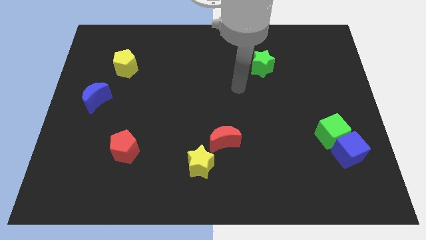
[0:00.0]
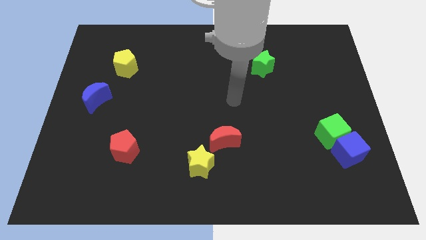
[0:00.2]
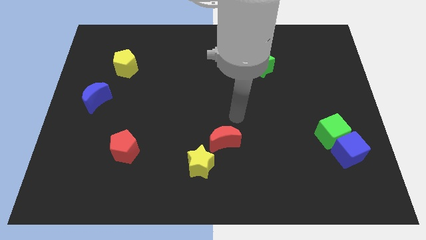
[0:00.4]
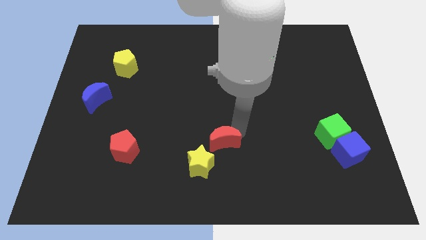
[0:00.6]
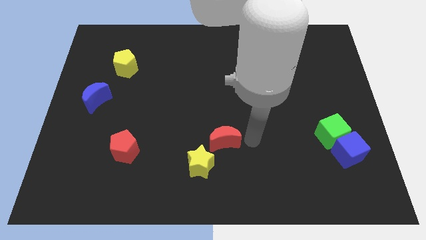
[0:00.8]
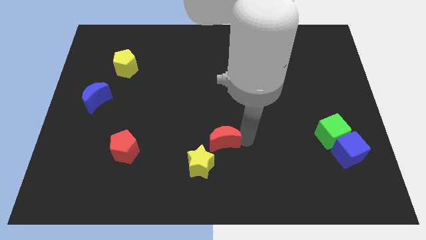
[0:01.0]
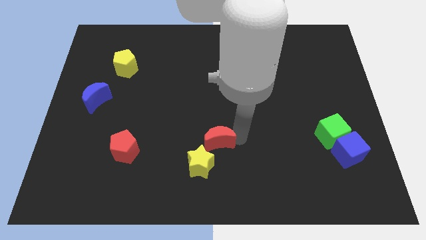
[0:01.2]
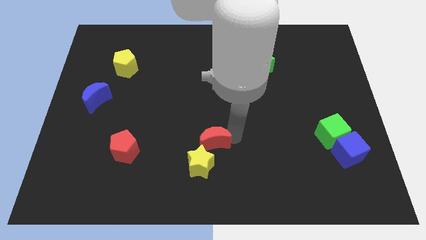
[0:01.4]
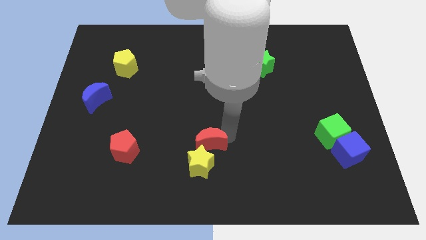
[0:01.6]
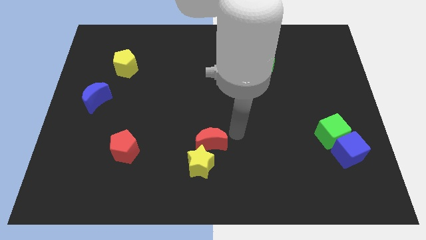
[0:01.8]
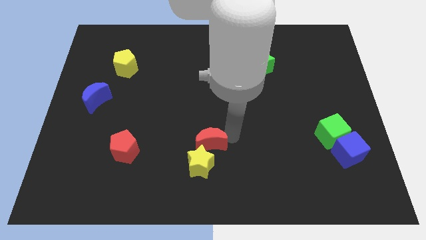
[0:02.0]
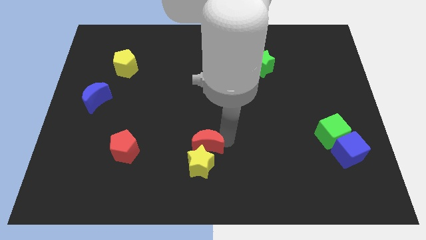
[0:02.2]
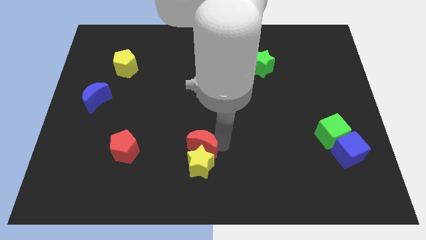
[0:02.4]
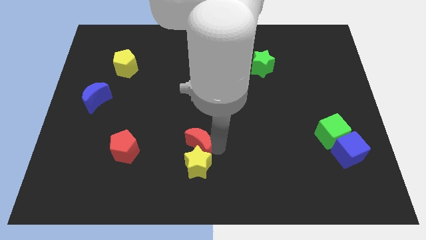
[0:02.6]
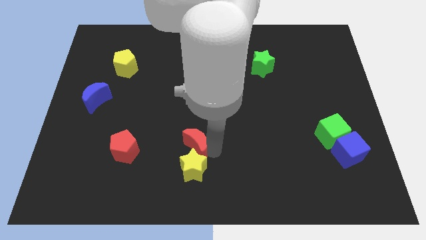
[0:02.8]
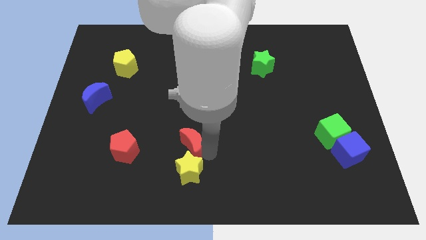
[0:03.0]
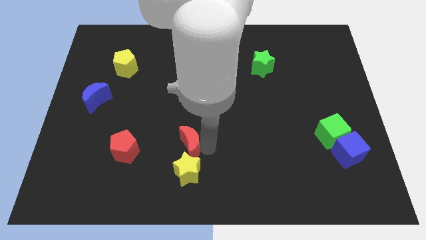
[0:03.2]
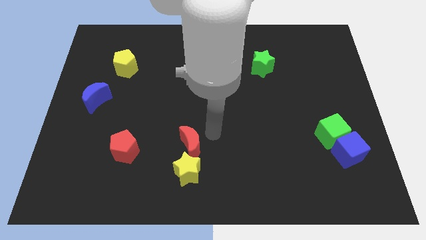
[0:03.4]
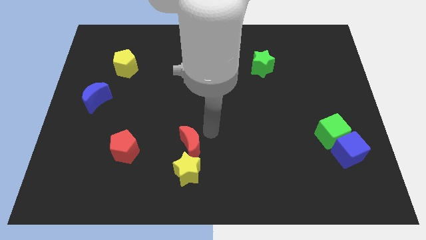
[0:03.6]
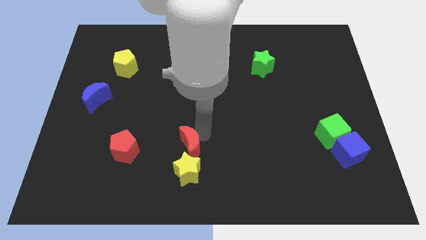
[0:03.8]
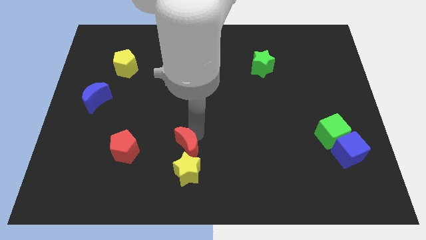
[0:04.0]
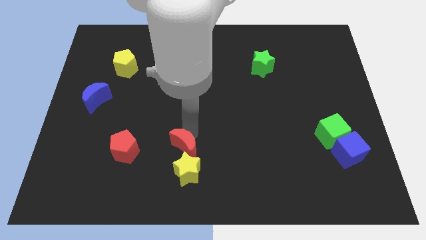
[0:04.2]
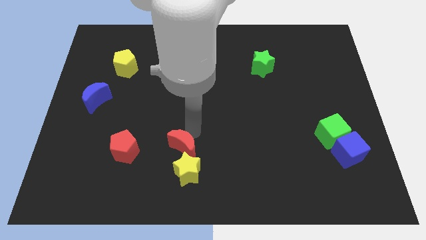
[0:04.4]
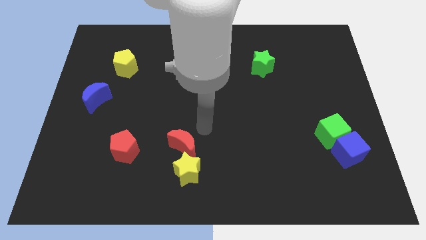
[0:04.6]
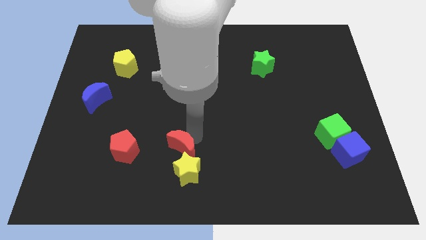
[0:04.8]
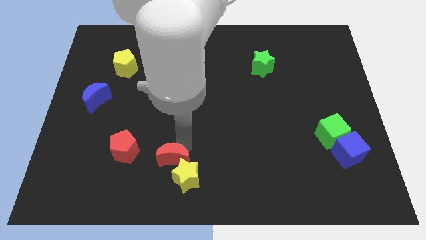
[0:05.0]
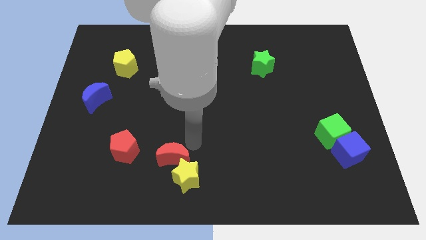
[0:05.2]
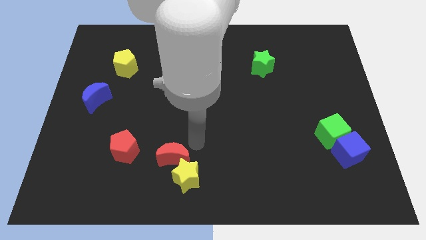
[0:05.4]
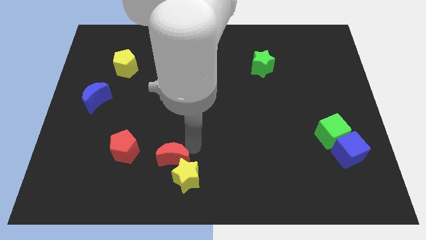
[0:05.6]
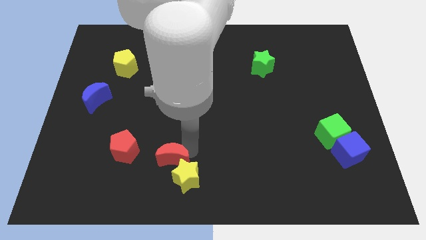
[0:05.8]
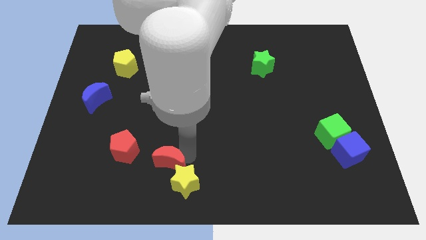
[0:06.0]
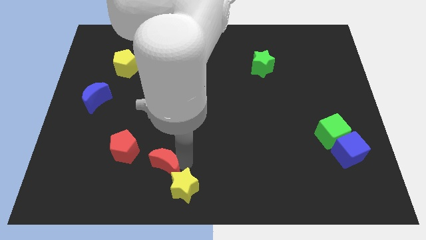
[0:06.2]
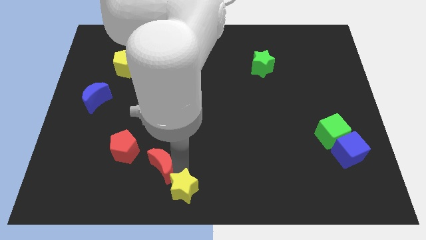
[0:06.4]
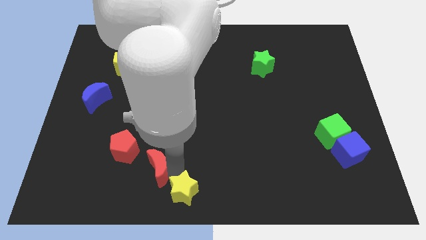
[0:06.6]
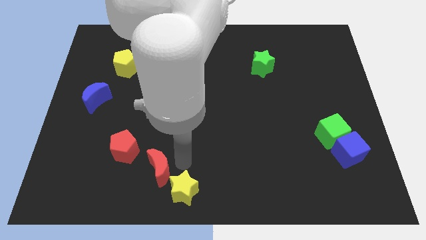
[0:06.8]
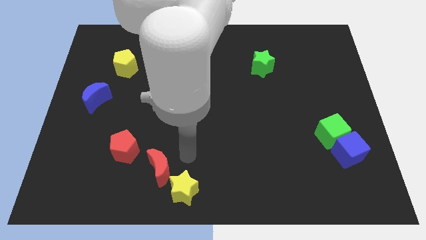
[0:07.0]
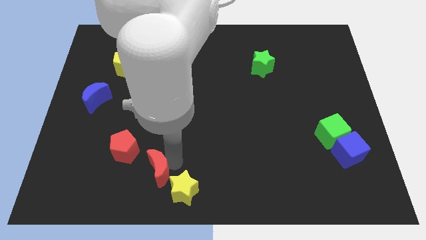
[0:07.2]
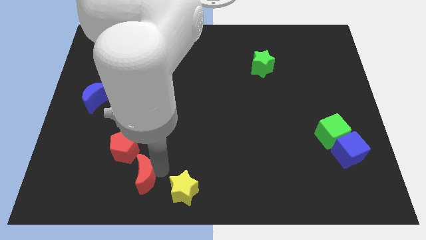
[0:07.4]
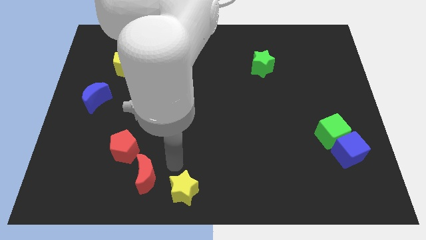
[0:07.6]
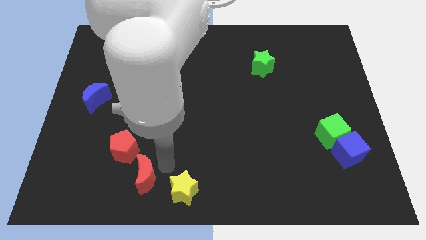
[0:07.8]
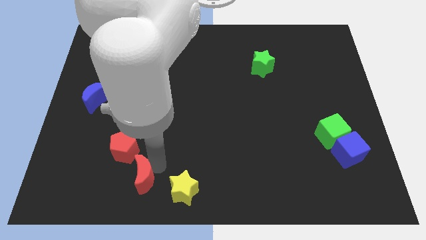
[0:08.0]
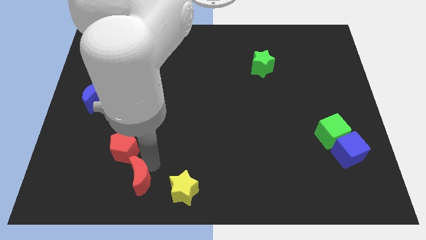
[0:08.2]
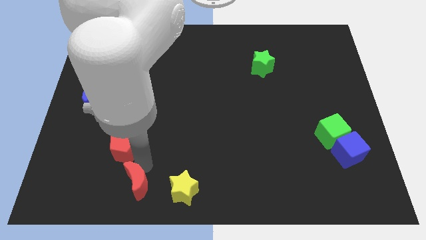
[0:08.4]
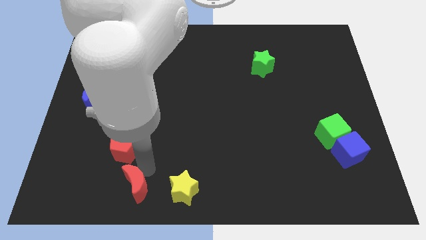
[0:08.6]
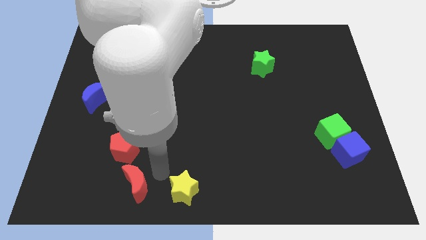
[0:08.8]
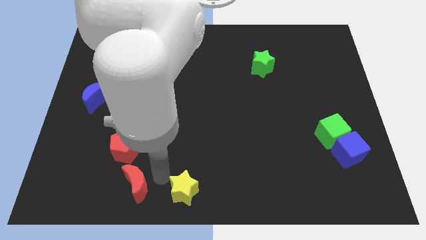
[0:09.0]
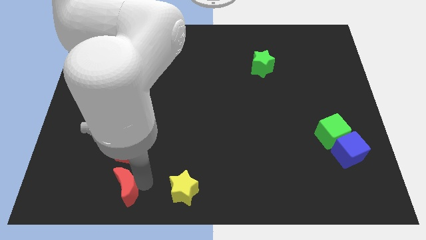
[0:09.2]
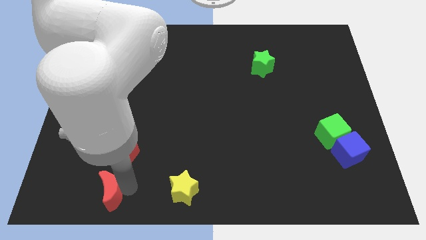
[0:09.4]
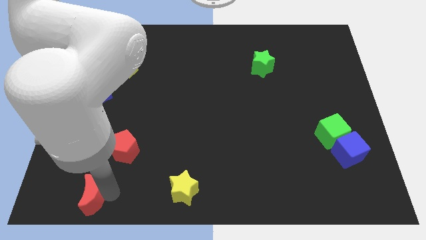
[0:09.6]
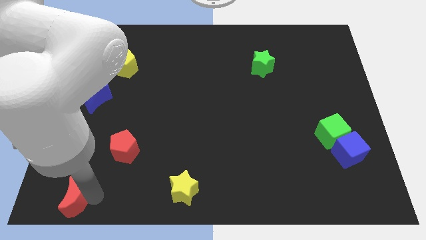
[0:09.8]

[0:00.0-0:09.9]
slide the red moon to the bottom left corner

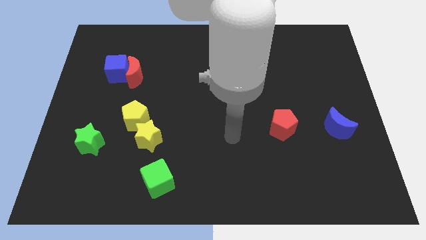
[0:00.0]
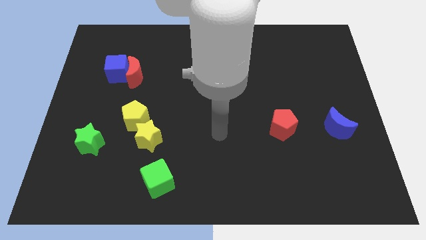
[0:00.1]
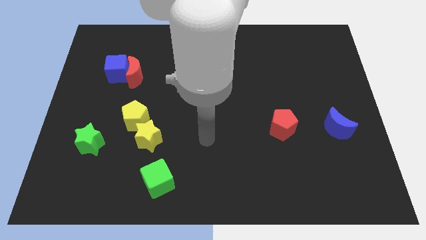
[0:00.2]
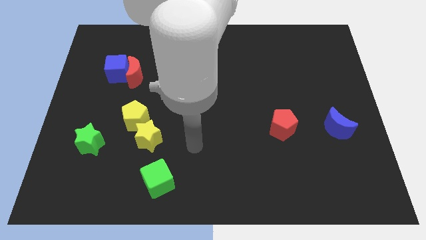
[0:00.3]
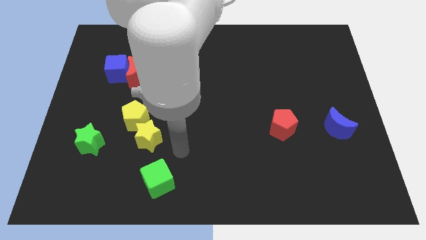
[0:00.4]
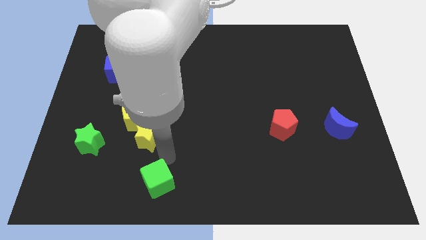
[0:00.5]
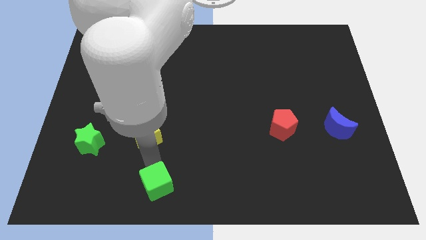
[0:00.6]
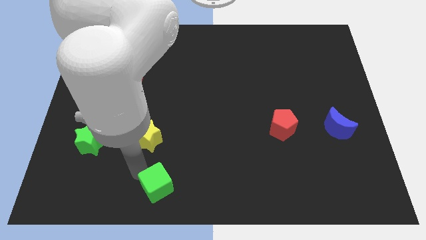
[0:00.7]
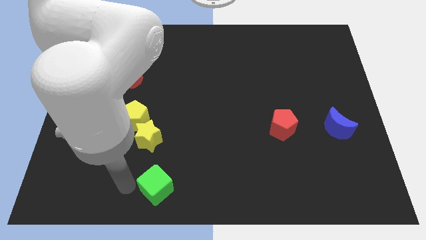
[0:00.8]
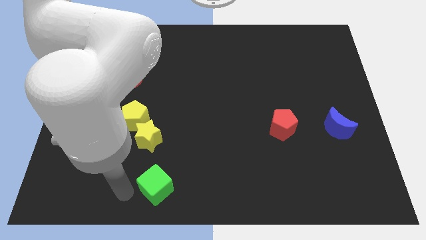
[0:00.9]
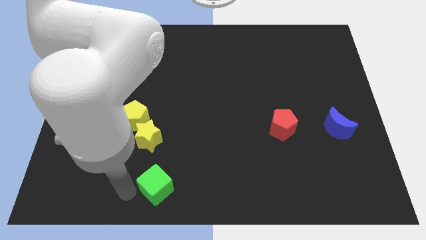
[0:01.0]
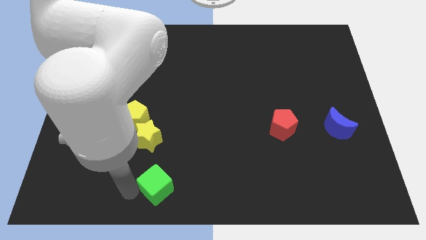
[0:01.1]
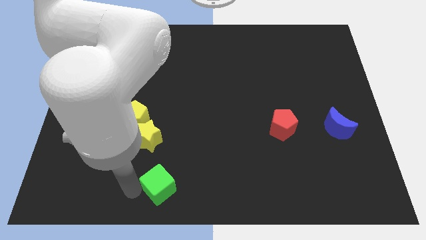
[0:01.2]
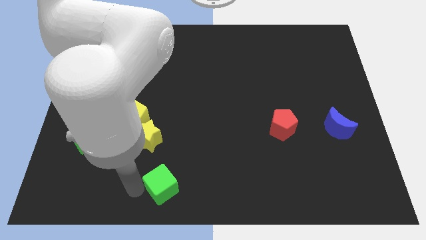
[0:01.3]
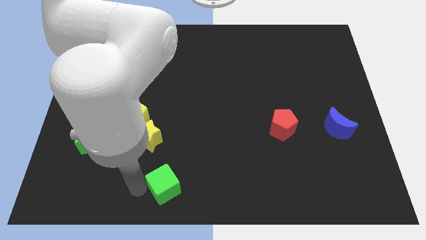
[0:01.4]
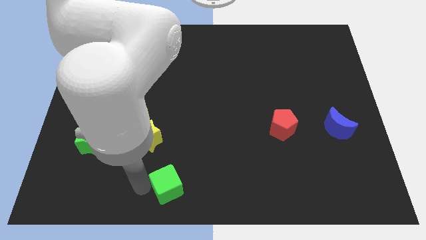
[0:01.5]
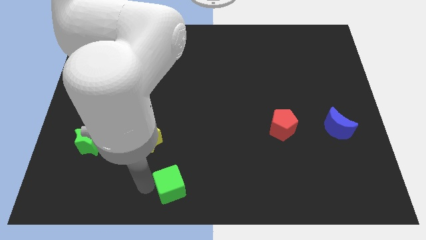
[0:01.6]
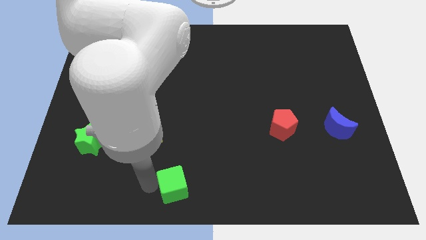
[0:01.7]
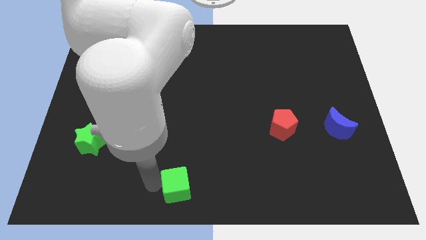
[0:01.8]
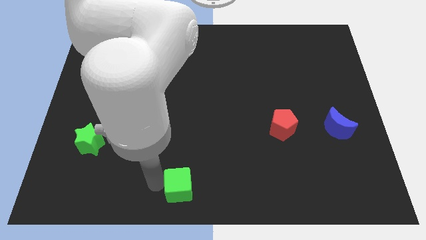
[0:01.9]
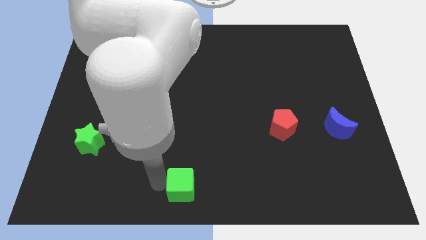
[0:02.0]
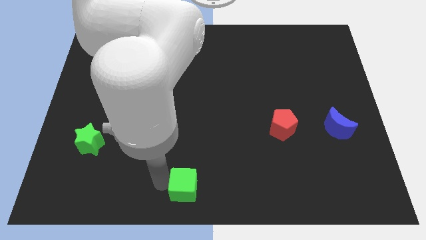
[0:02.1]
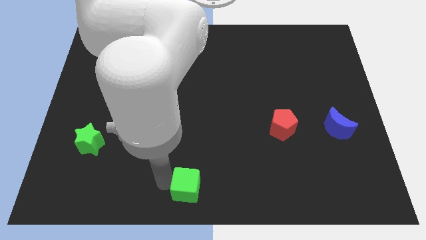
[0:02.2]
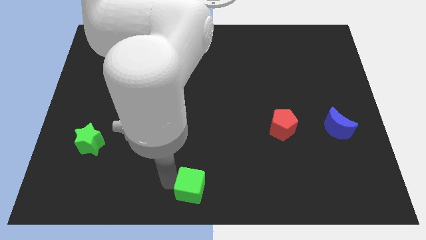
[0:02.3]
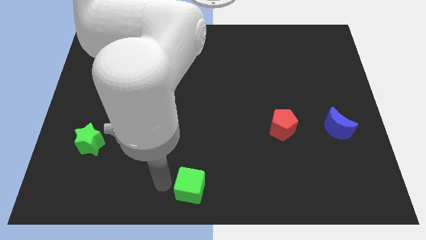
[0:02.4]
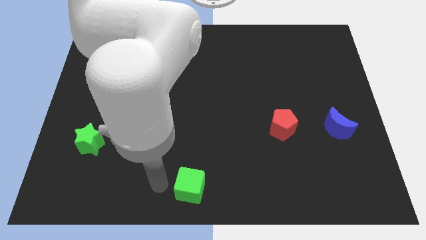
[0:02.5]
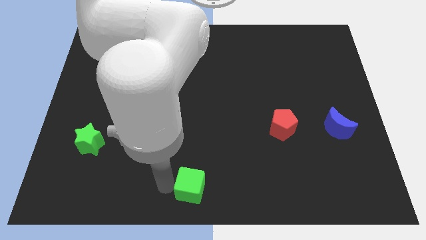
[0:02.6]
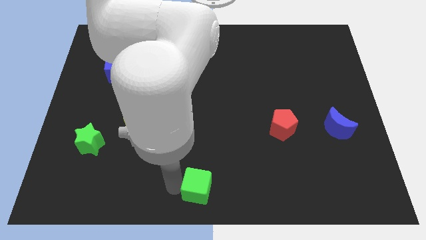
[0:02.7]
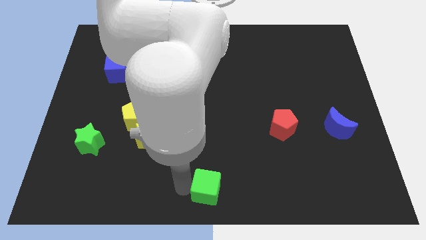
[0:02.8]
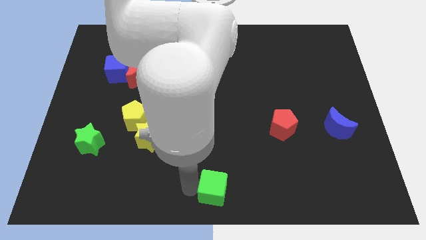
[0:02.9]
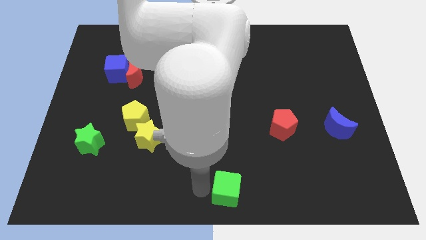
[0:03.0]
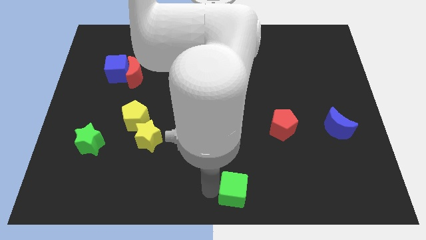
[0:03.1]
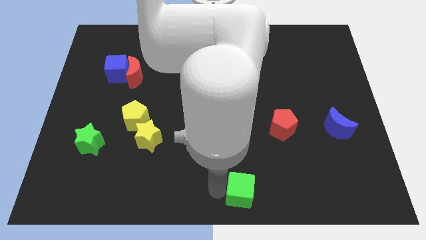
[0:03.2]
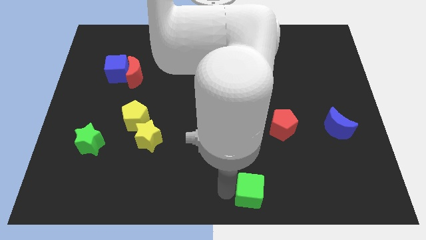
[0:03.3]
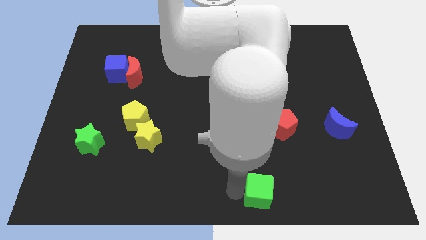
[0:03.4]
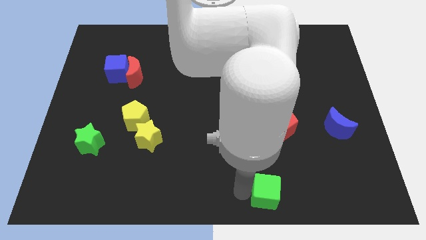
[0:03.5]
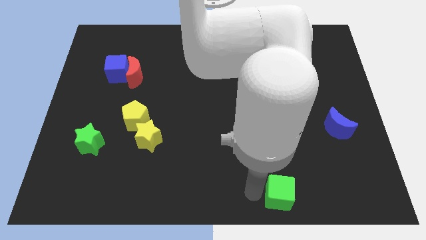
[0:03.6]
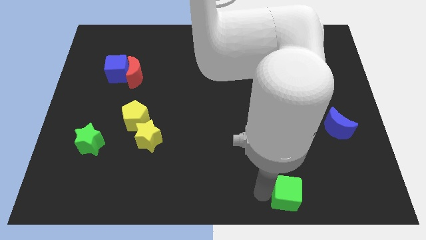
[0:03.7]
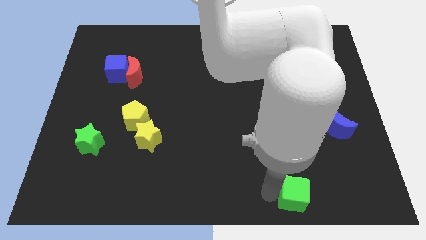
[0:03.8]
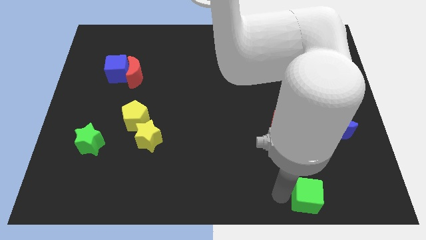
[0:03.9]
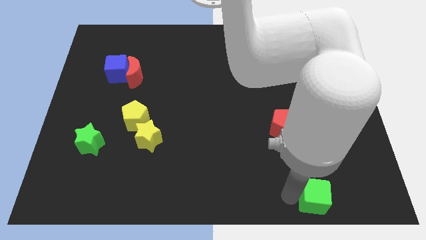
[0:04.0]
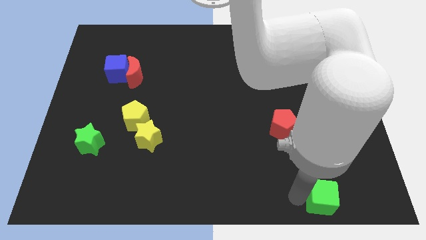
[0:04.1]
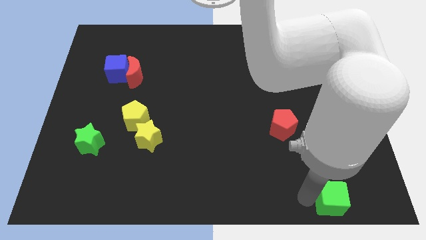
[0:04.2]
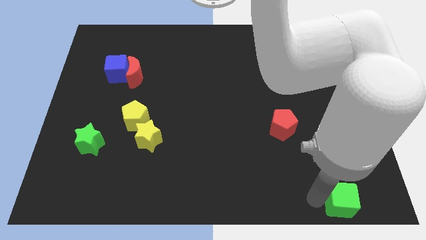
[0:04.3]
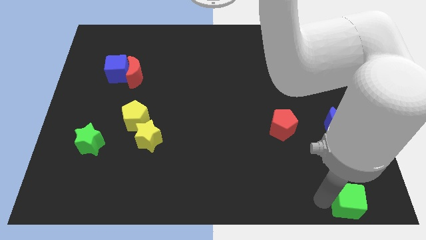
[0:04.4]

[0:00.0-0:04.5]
slide the green cube to the lower right corner
